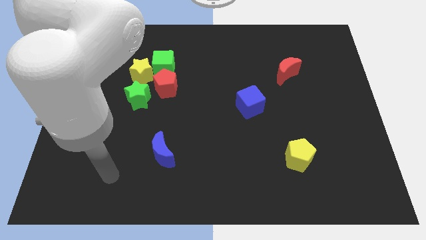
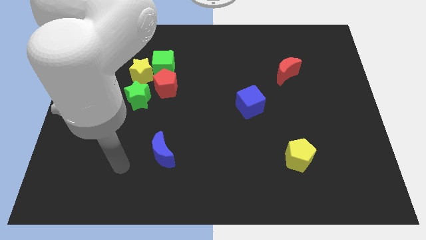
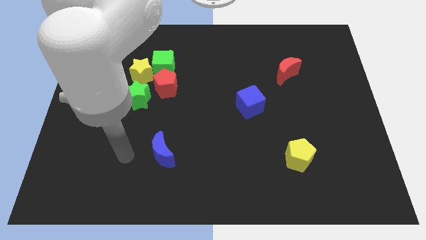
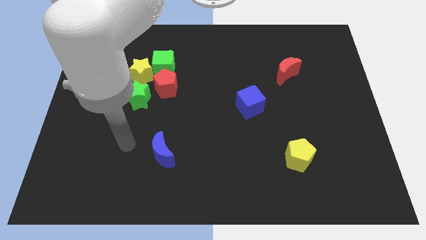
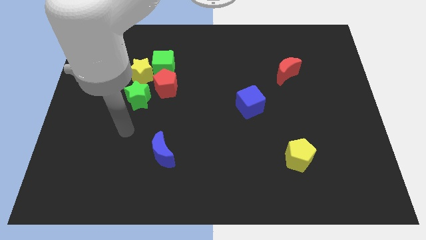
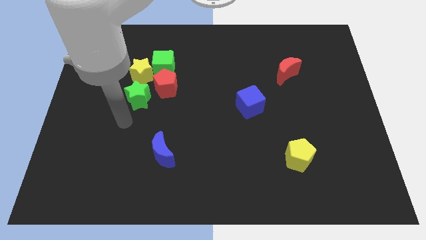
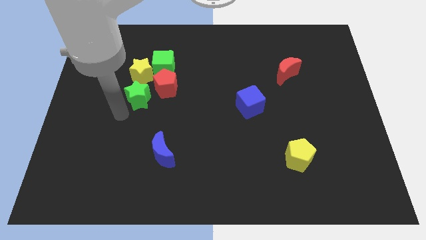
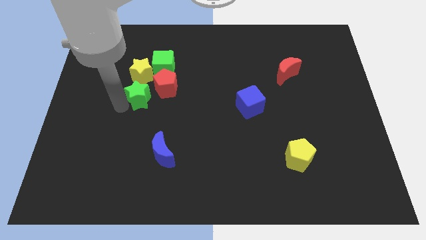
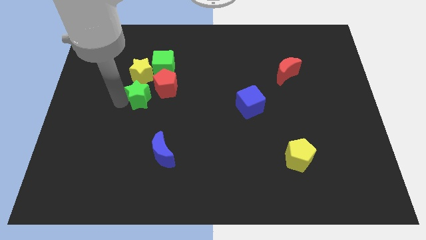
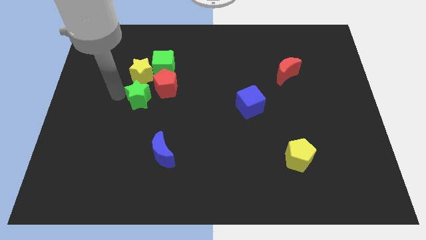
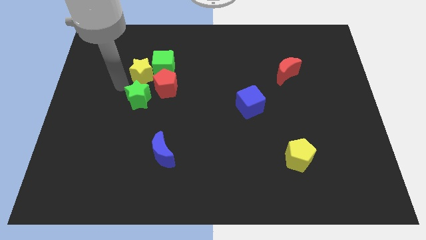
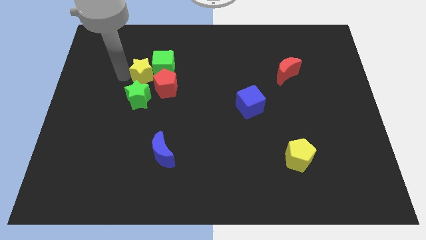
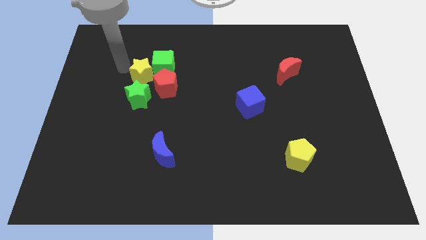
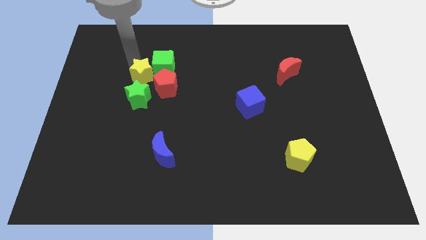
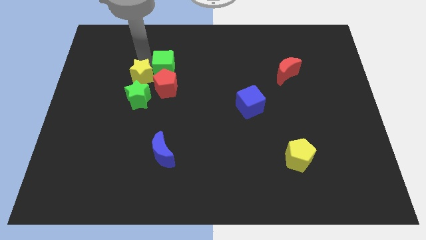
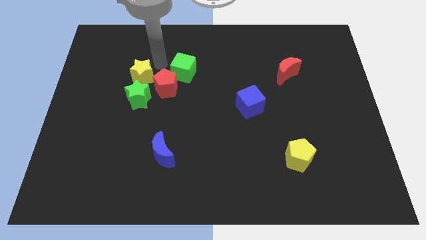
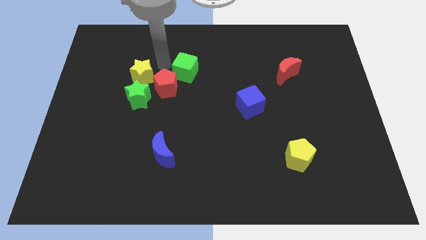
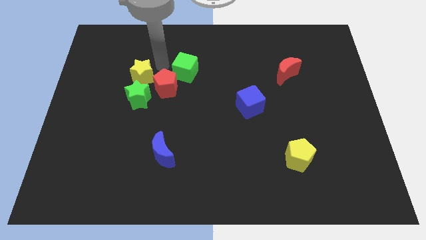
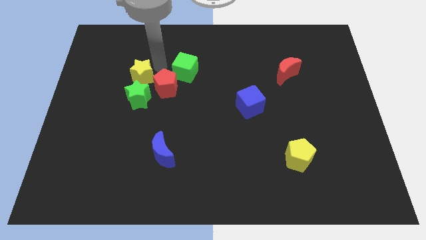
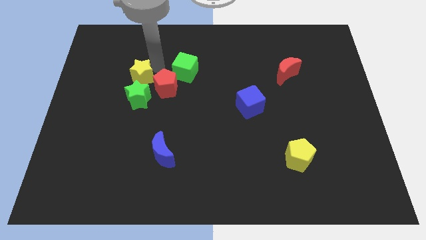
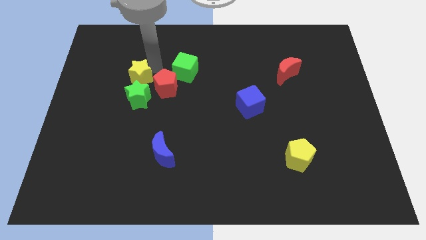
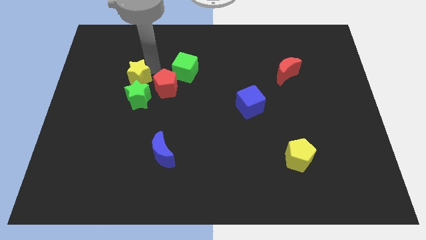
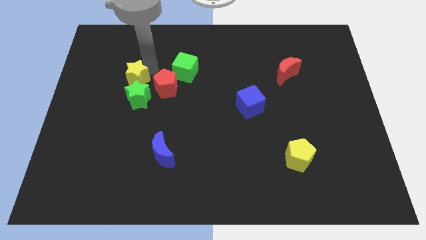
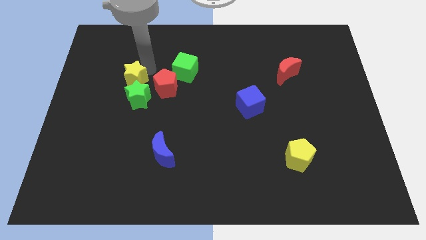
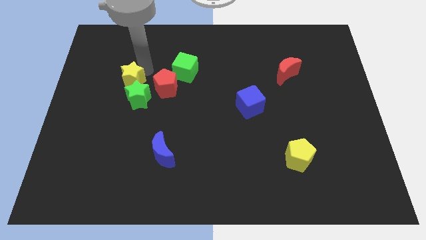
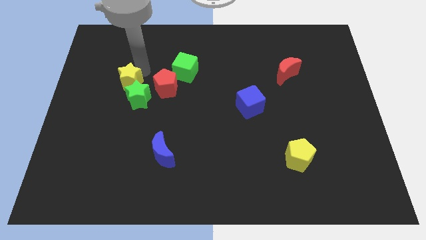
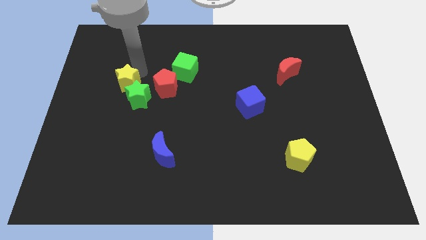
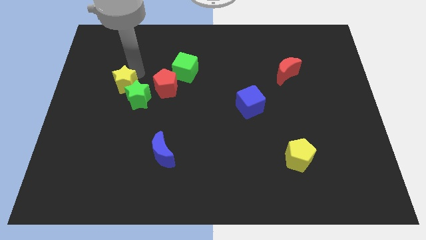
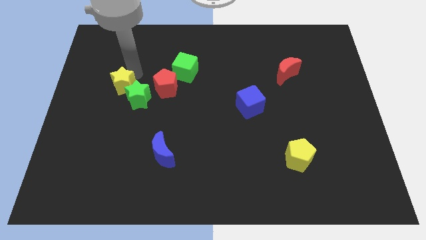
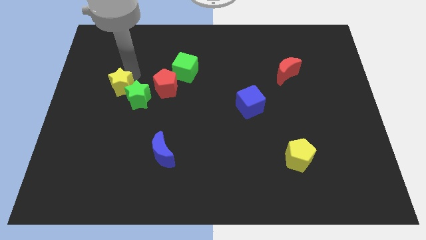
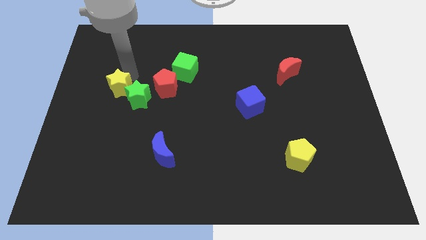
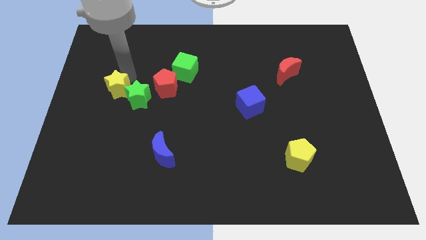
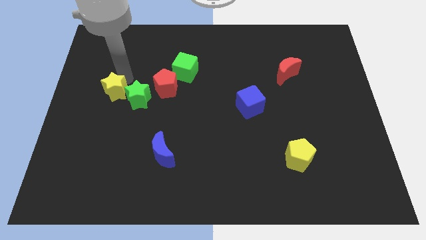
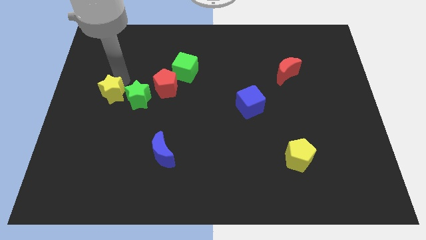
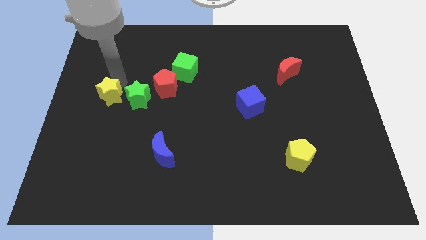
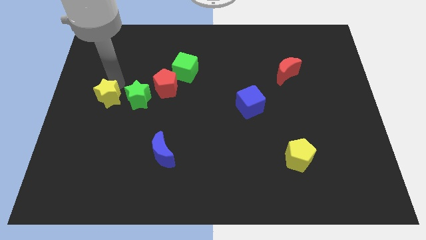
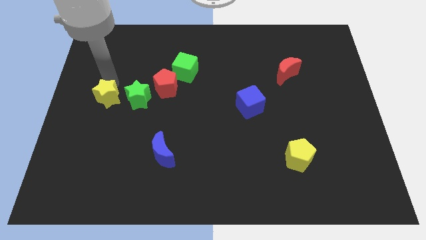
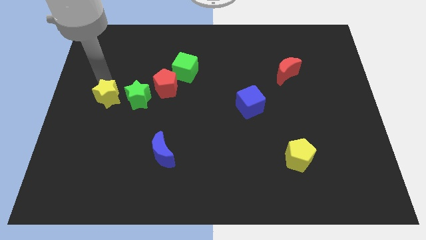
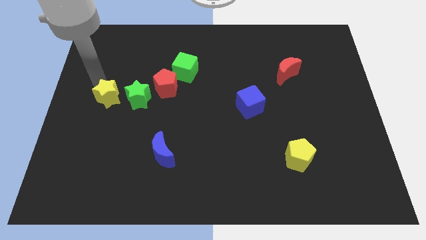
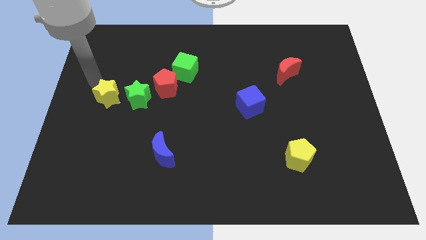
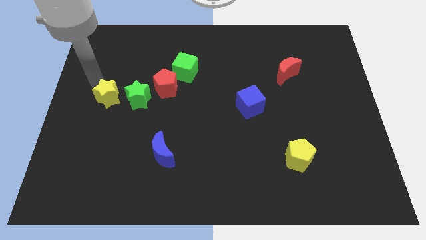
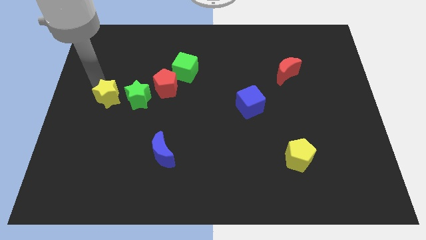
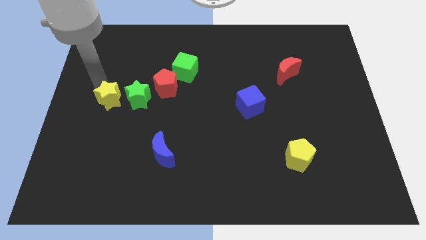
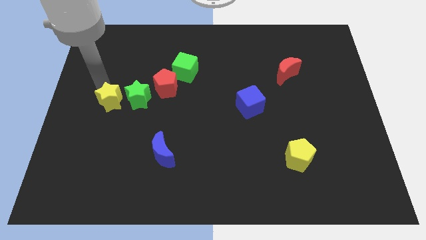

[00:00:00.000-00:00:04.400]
move the yellow star downwards a bit

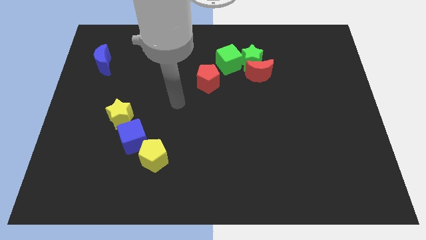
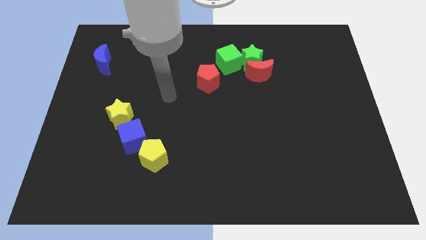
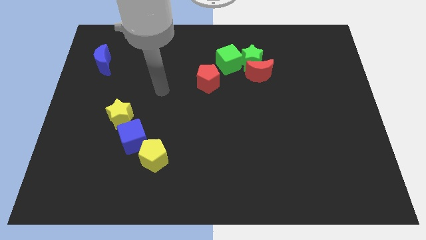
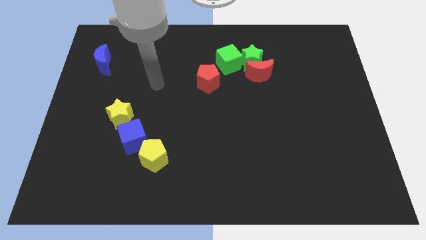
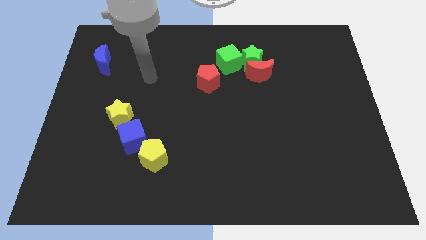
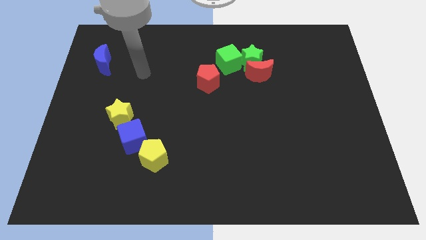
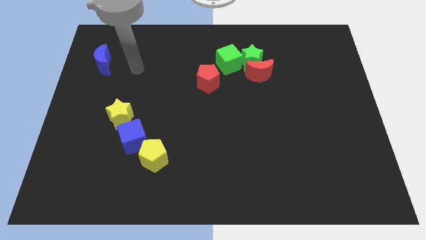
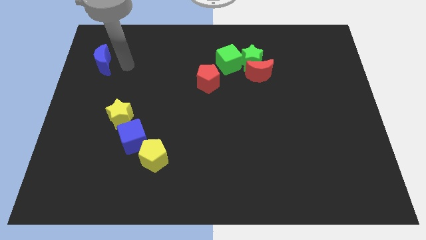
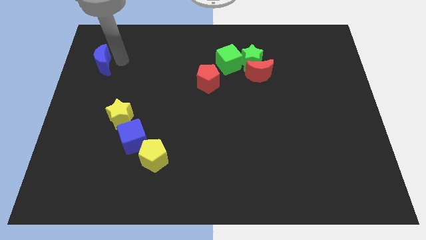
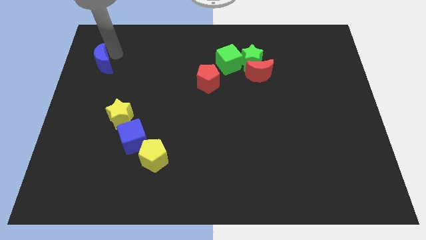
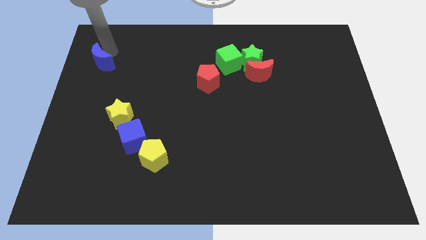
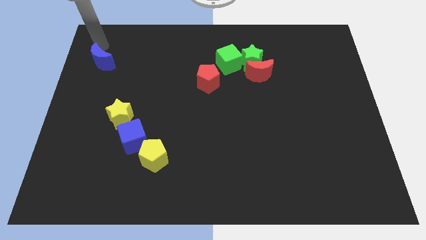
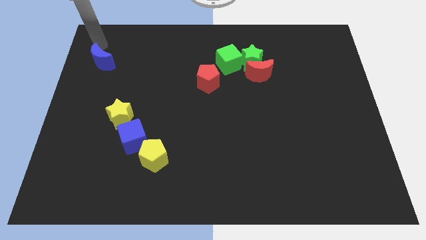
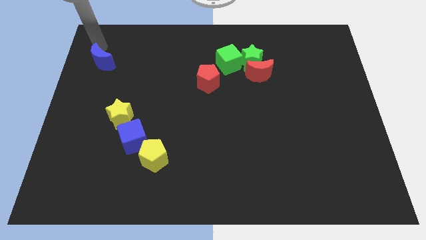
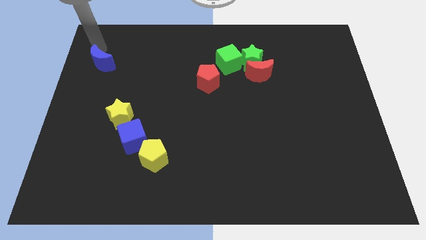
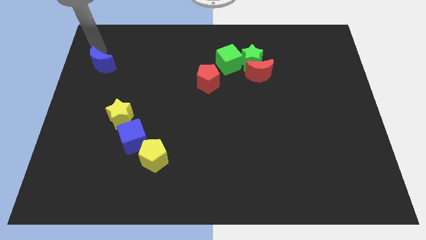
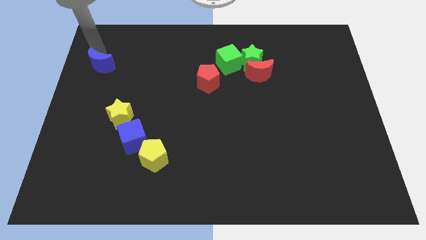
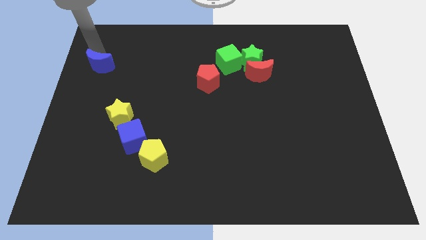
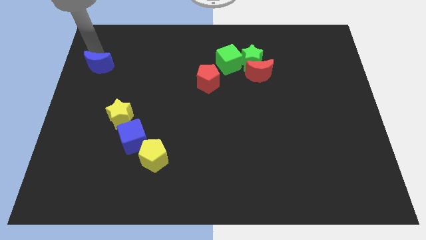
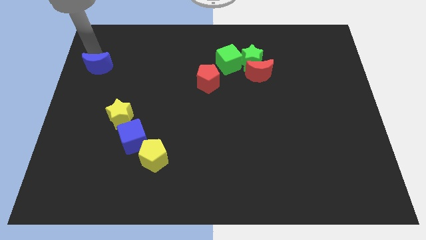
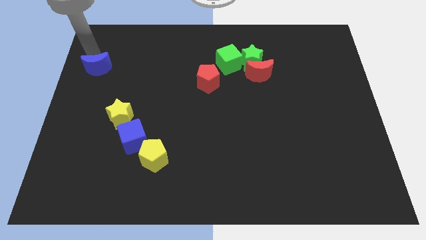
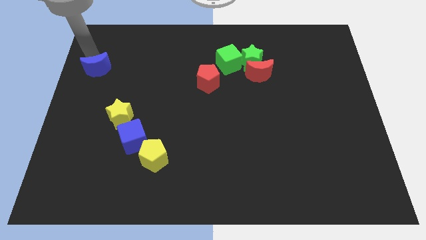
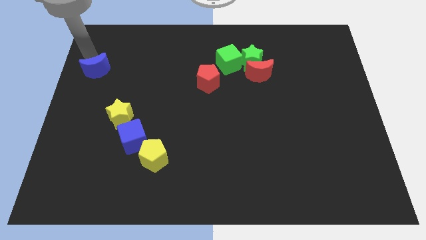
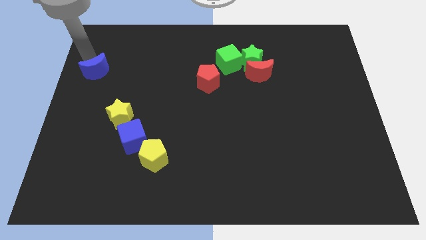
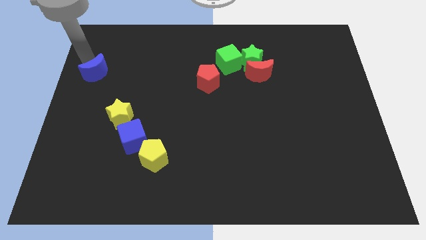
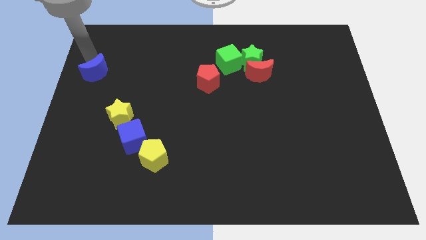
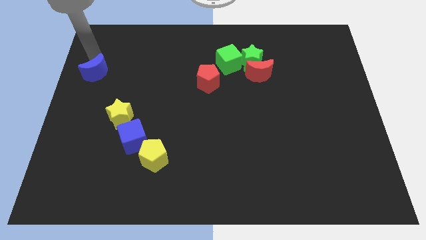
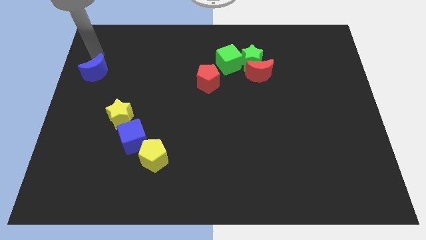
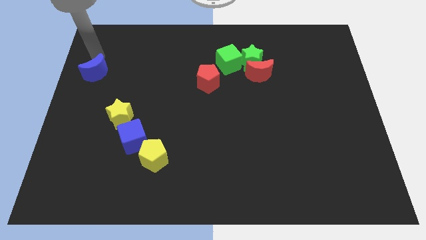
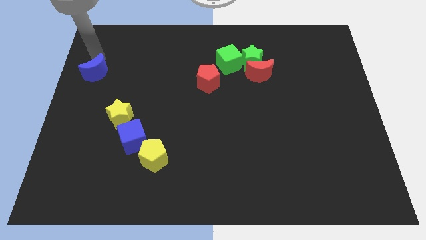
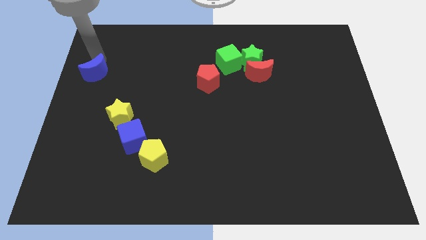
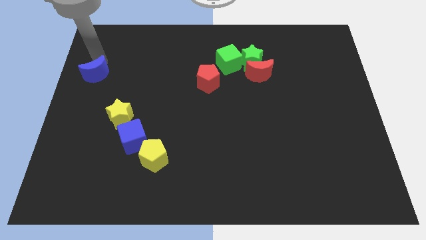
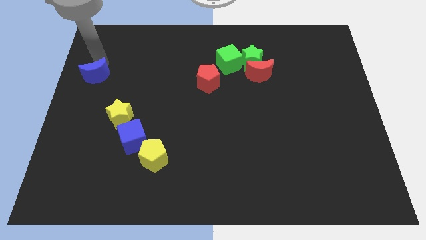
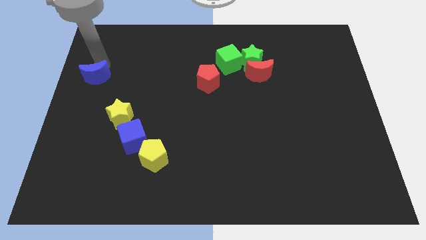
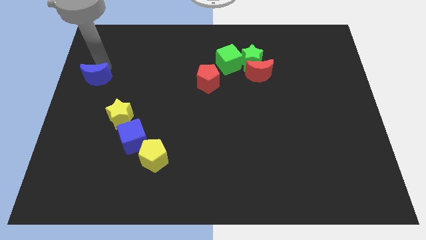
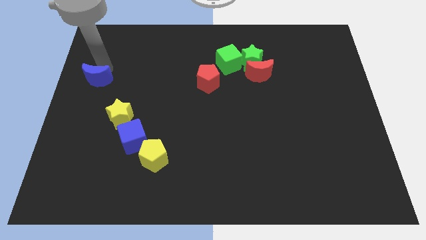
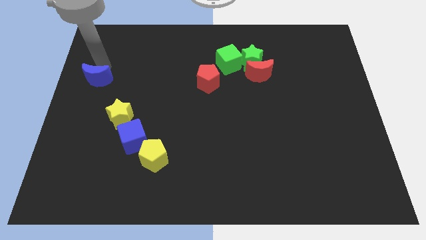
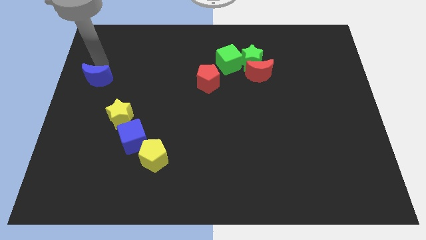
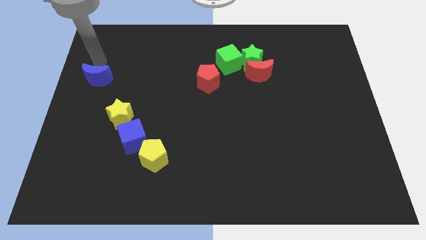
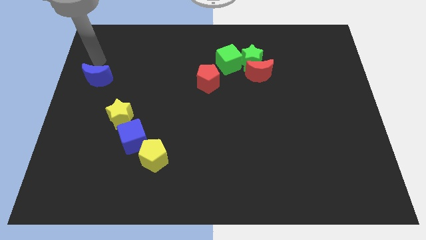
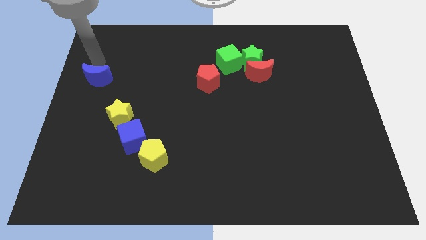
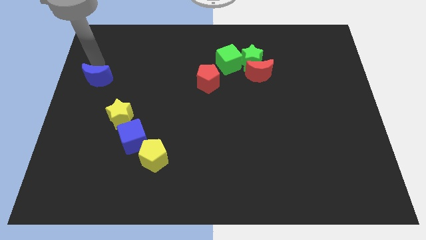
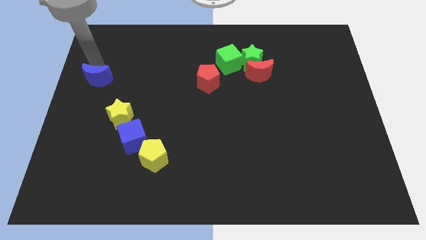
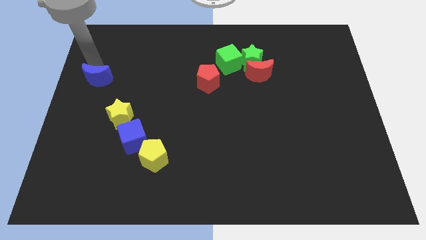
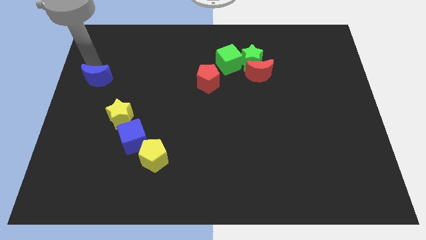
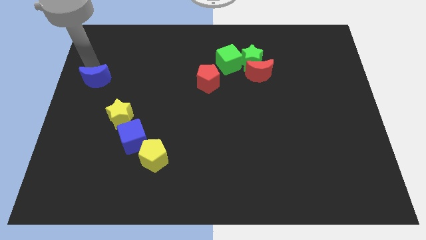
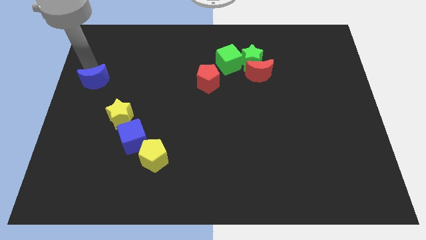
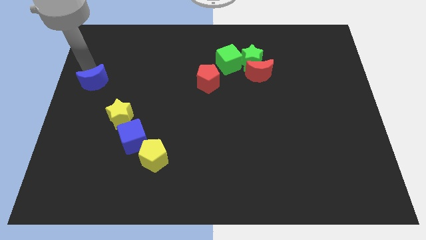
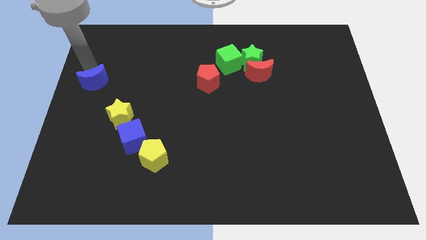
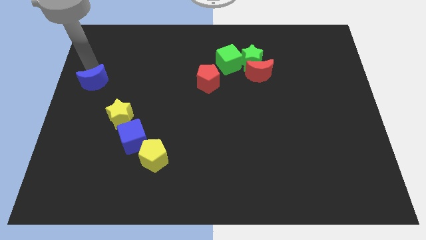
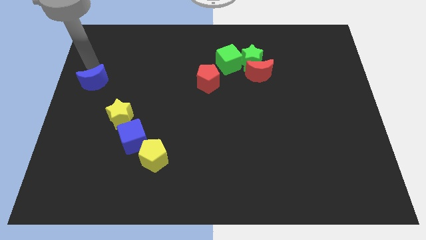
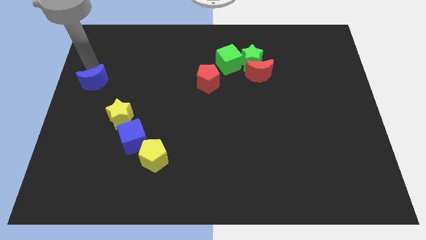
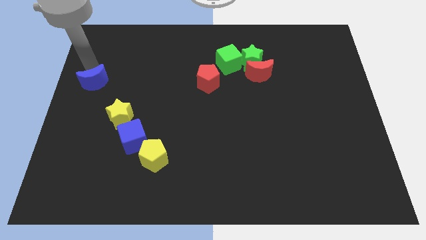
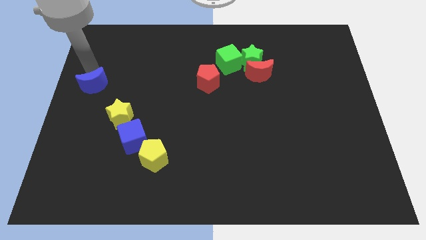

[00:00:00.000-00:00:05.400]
slightly push the blue moon down
